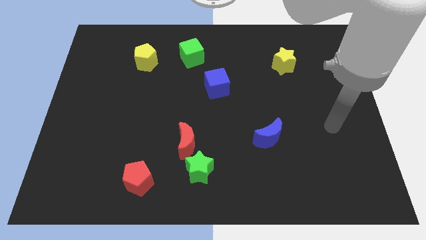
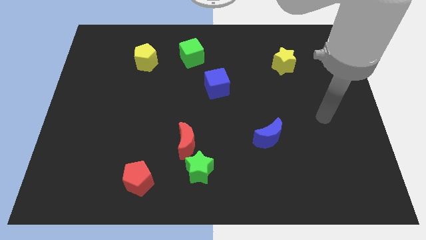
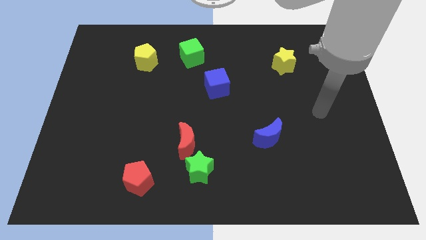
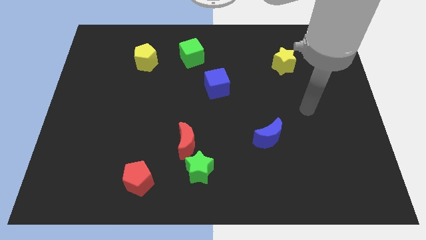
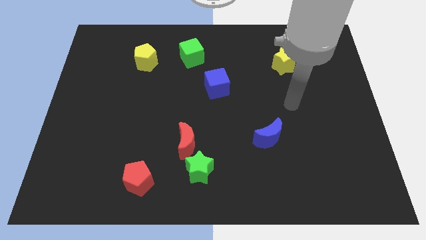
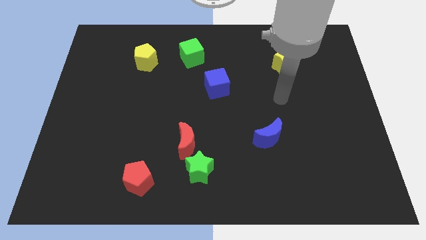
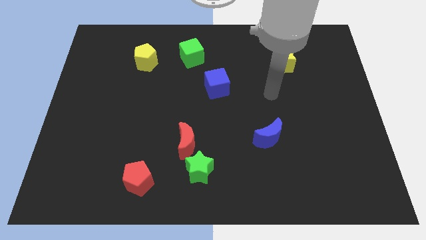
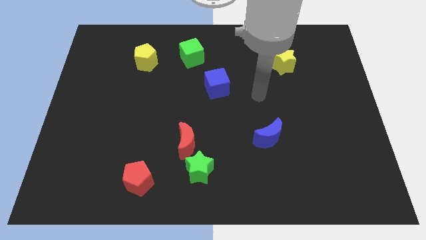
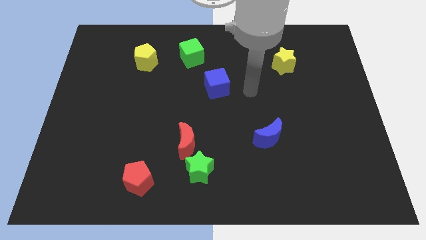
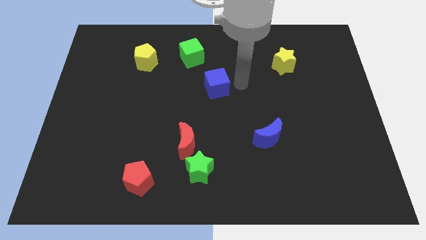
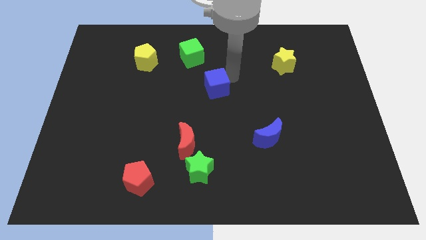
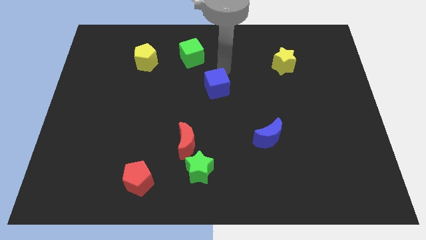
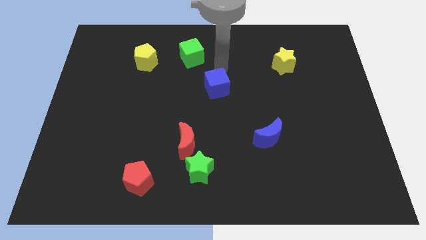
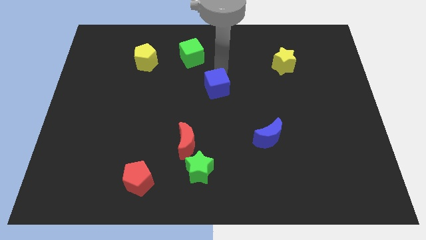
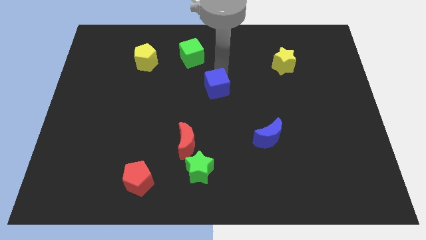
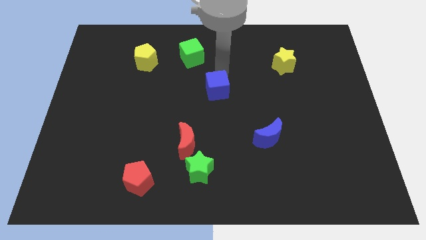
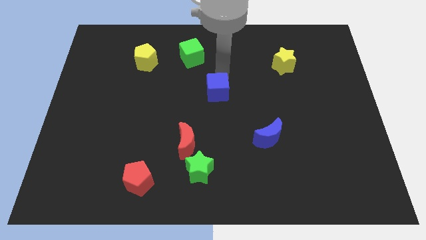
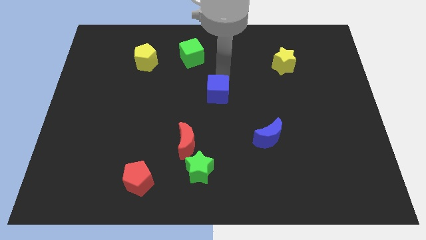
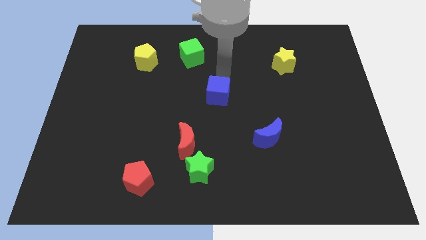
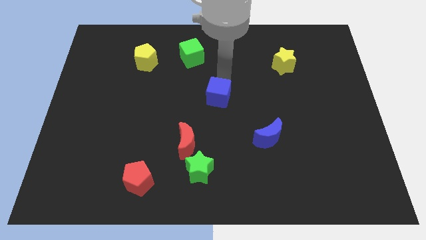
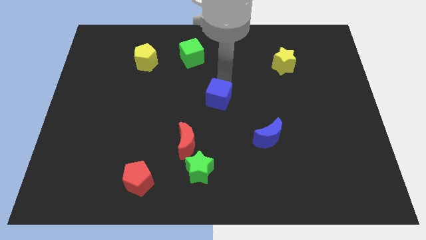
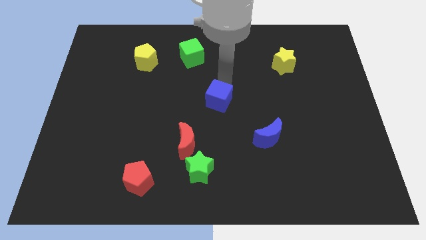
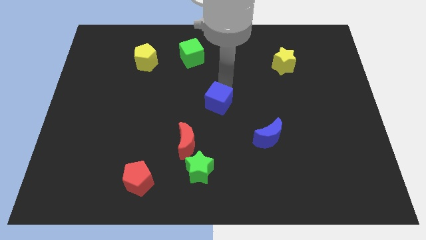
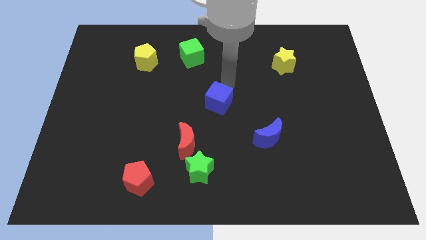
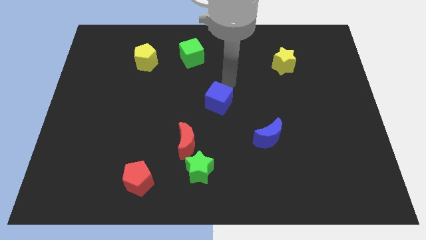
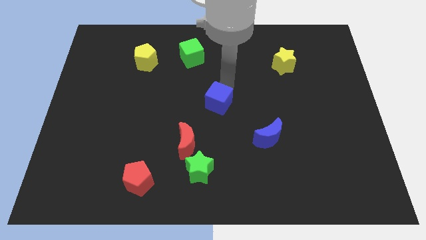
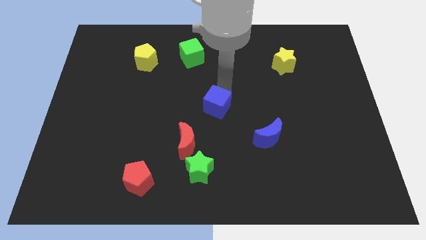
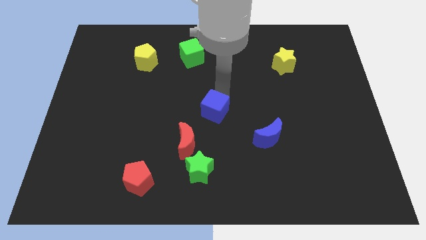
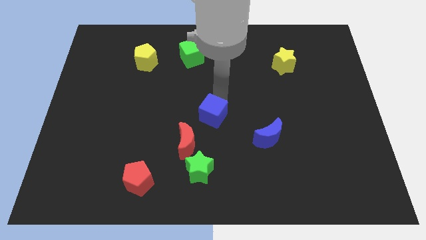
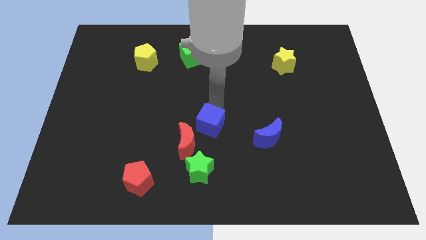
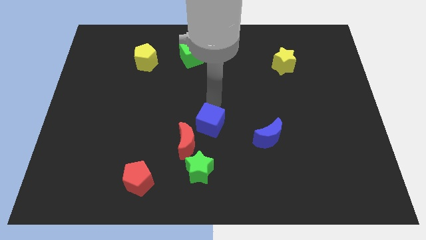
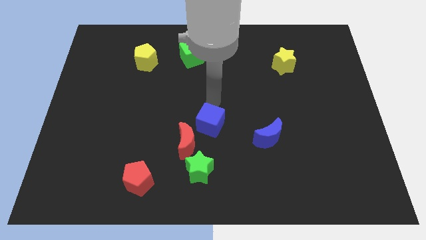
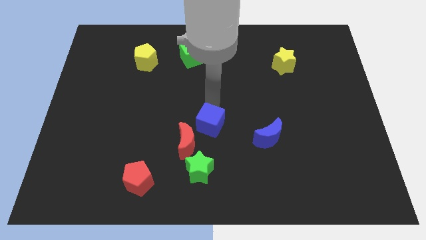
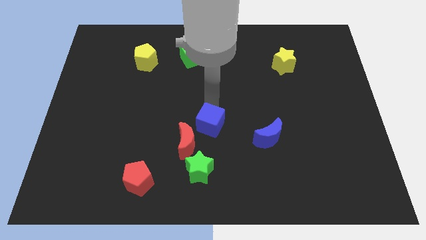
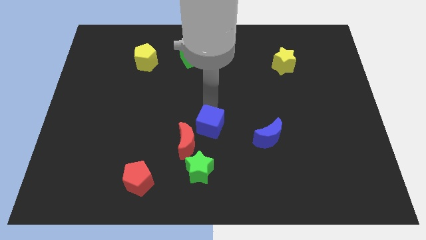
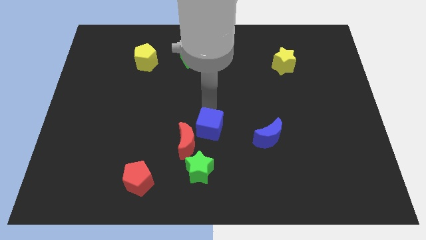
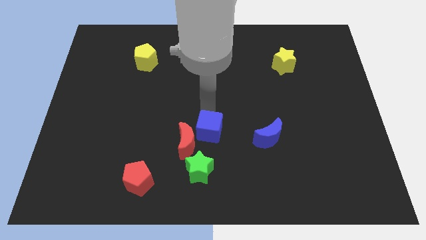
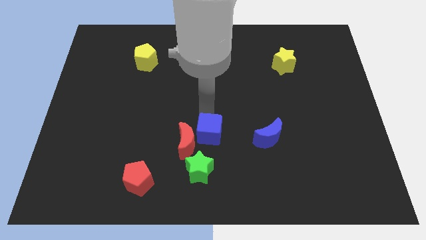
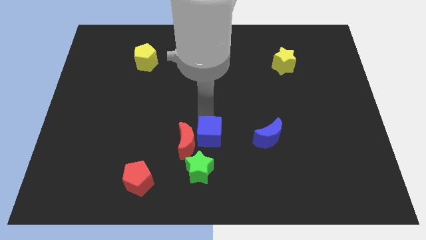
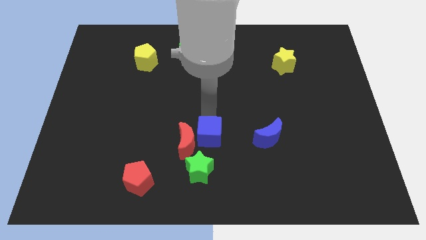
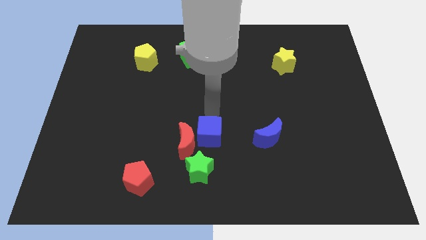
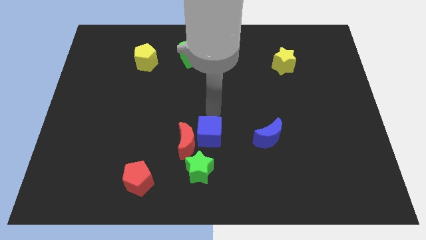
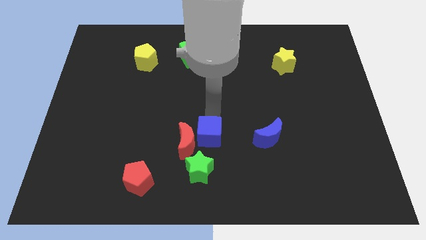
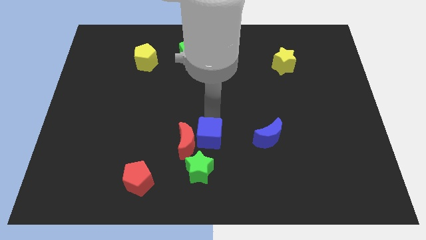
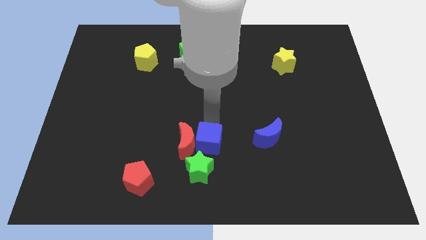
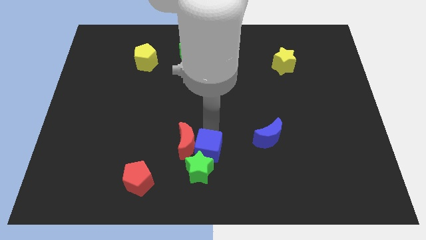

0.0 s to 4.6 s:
move the blue cube towards the green star

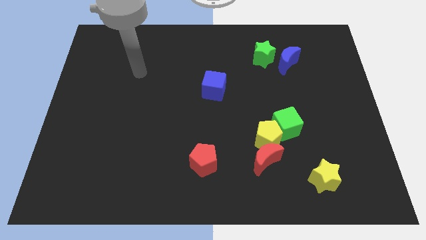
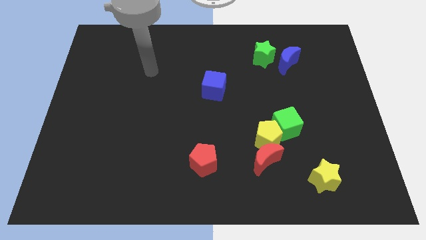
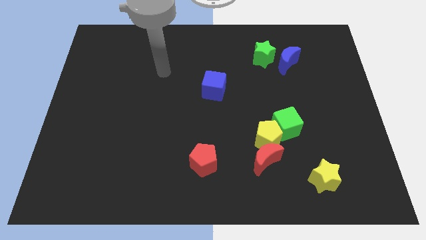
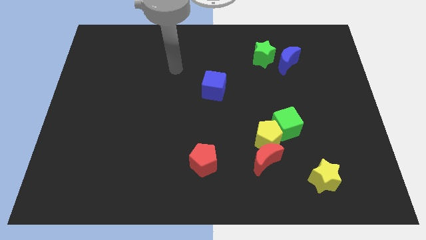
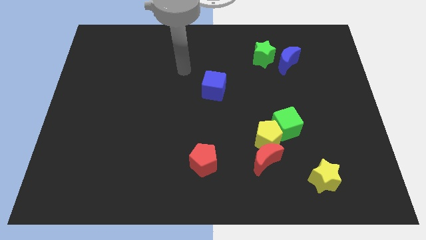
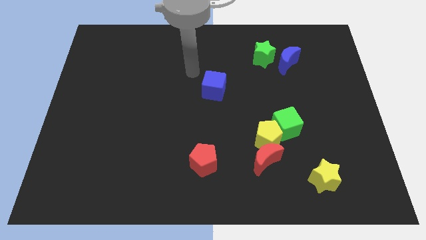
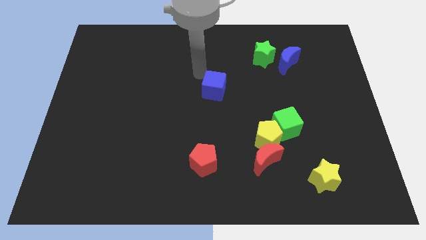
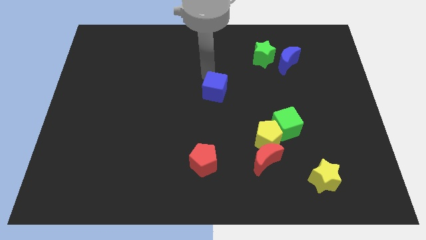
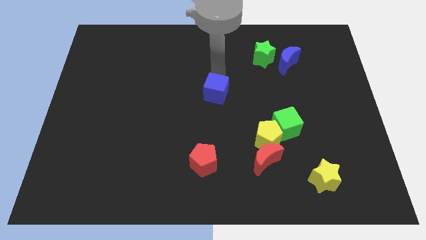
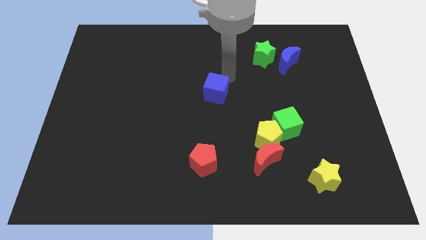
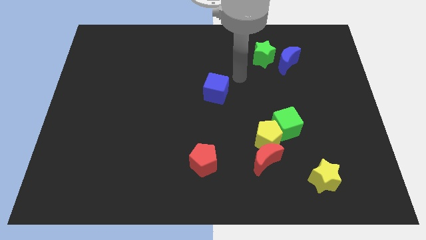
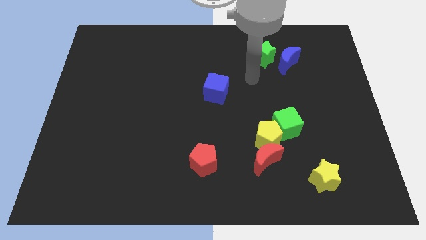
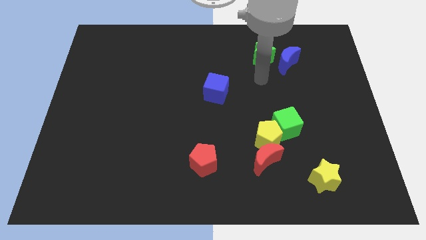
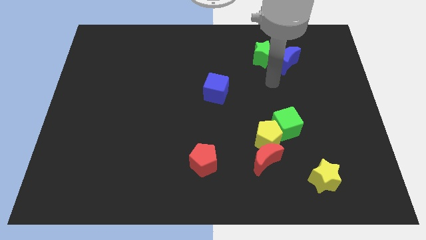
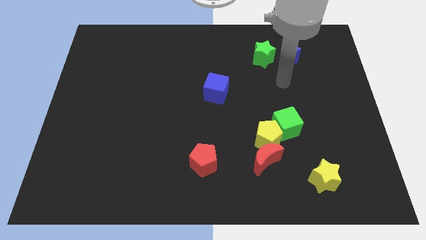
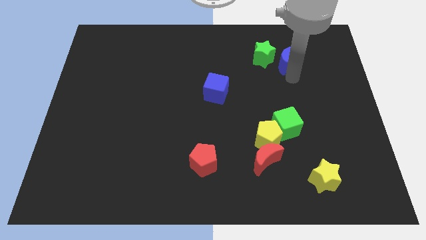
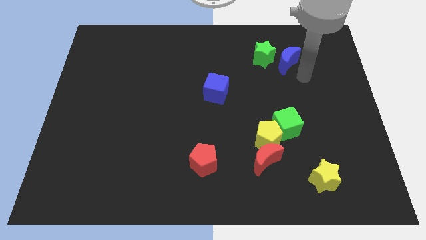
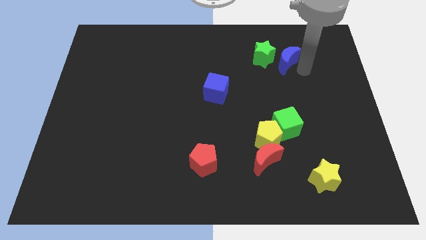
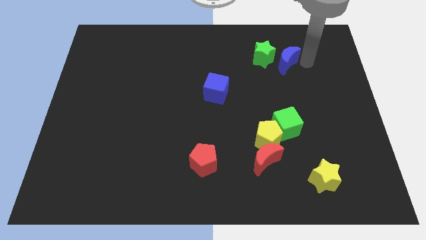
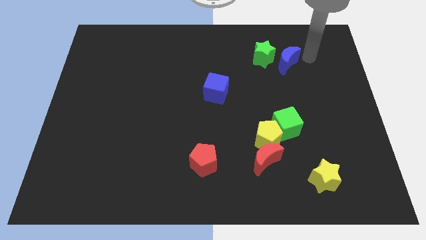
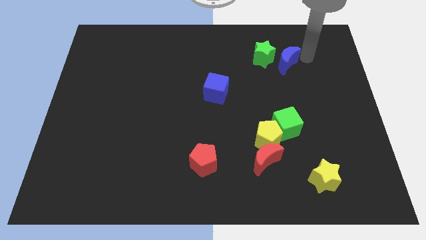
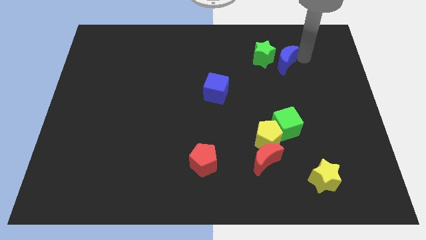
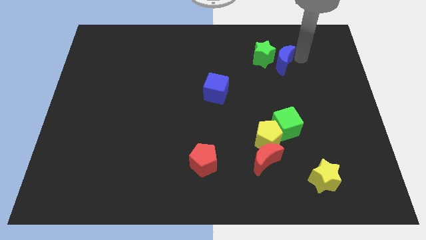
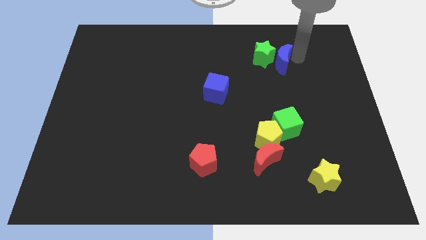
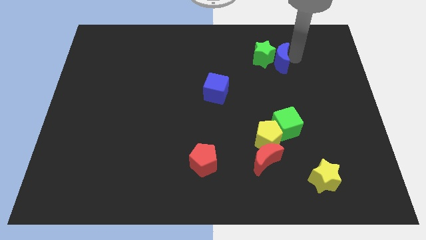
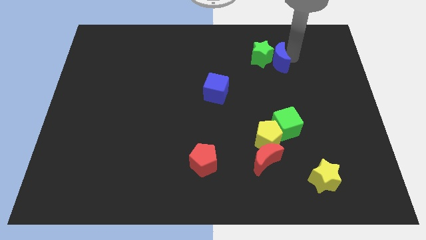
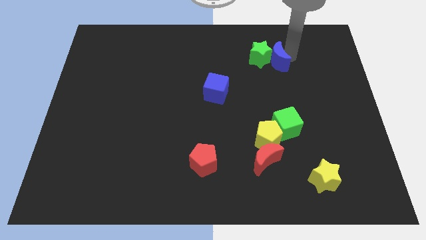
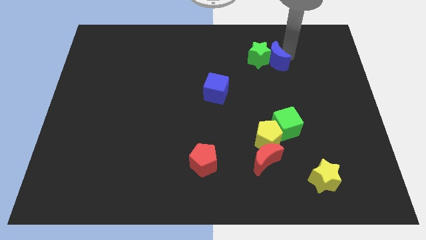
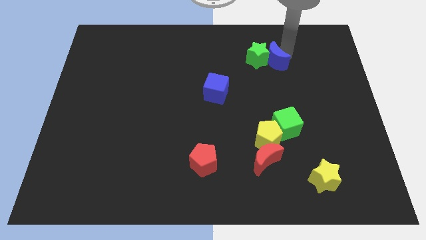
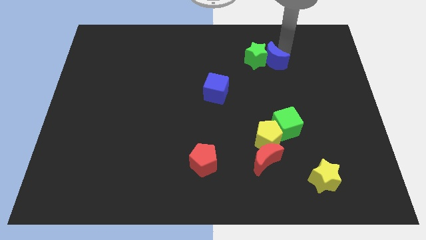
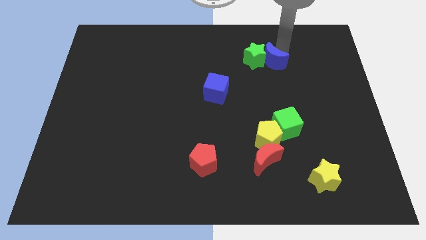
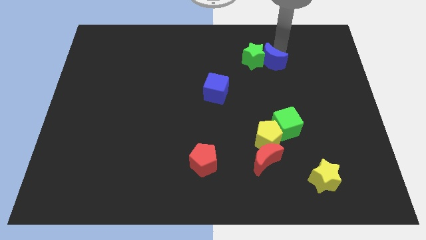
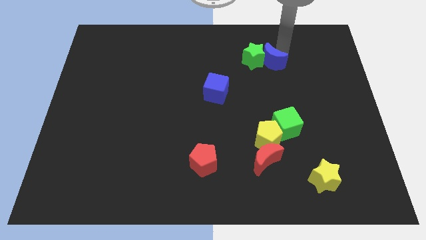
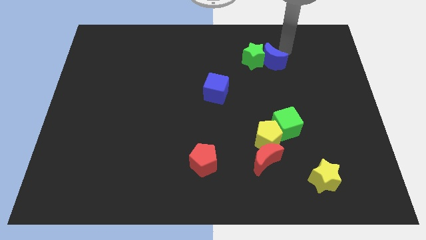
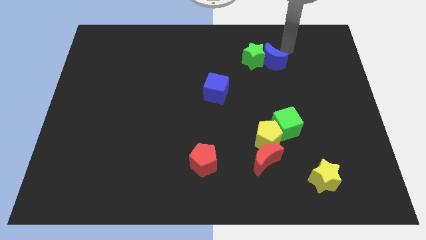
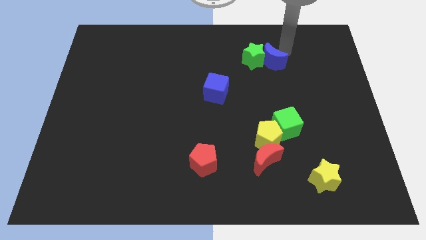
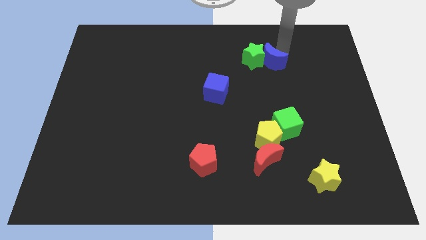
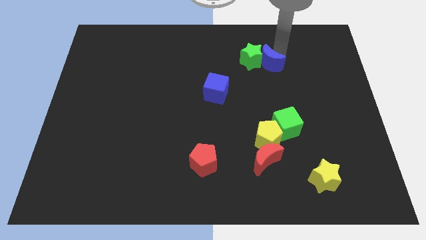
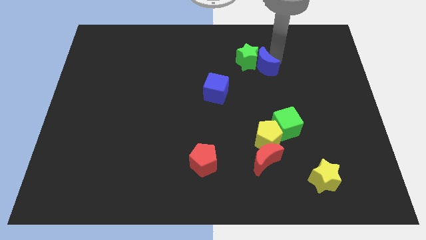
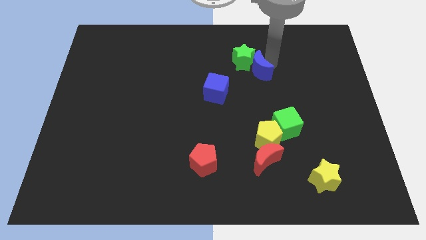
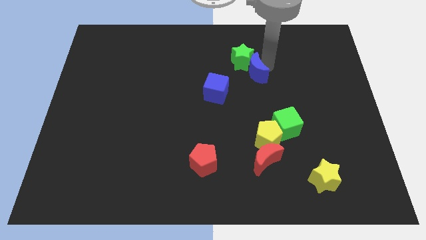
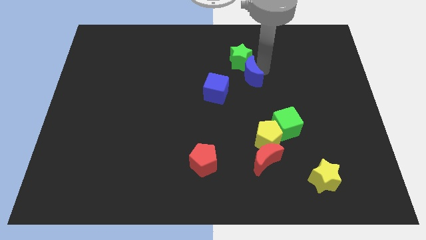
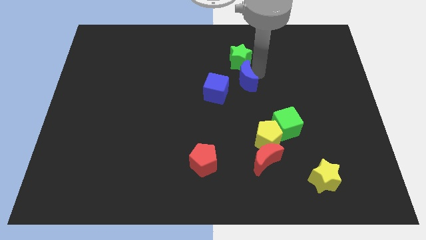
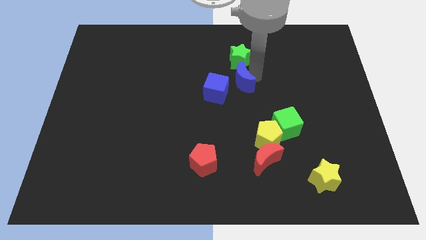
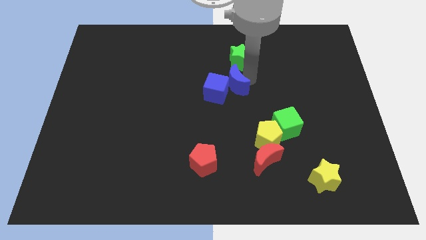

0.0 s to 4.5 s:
move the blue moon close to the blue cube
